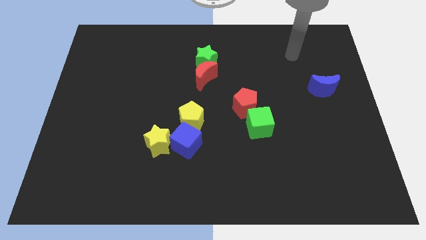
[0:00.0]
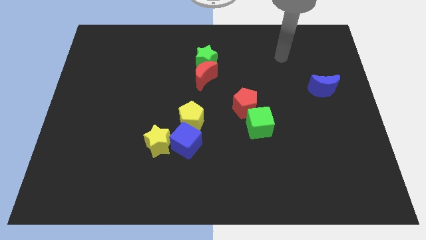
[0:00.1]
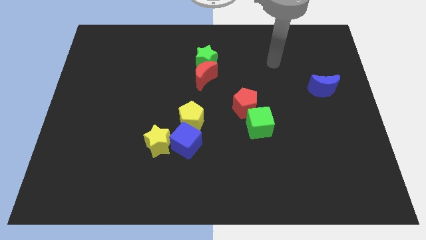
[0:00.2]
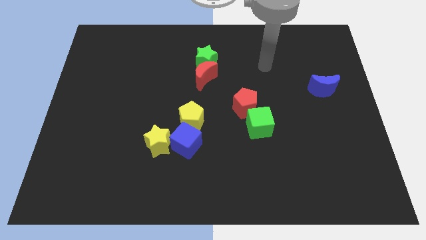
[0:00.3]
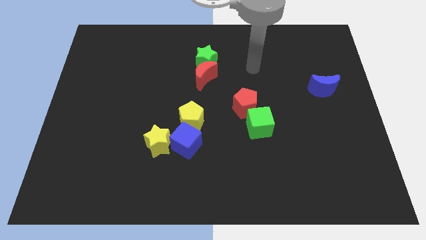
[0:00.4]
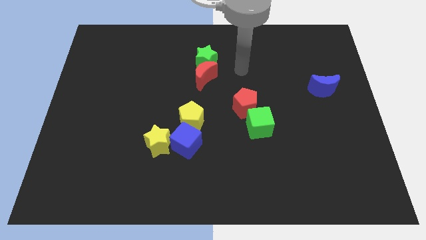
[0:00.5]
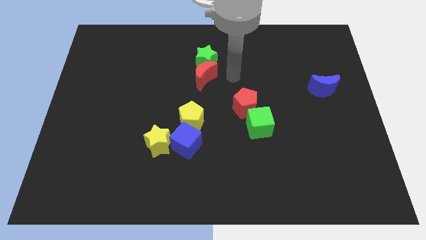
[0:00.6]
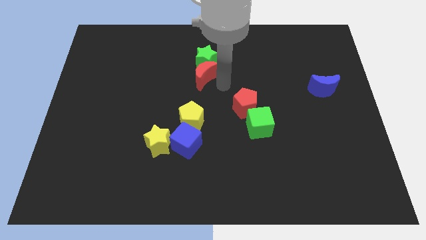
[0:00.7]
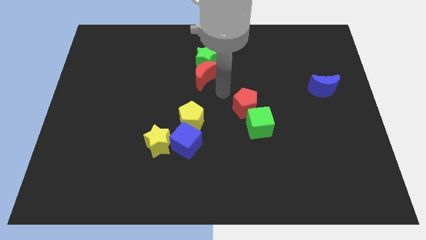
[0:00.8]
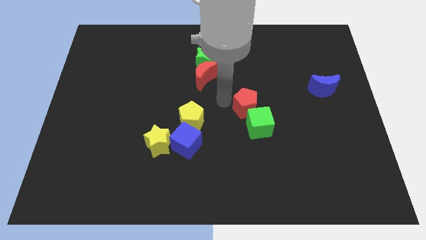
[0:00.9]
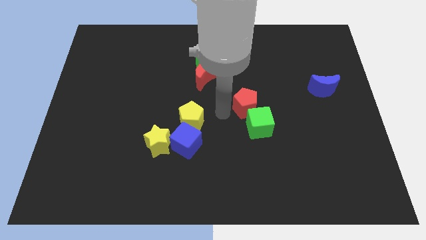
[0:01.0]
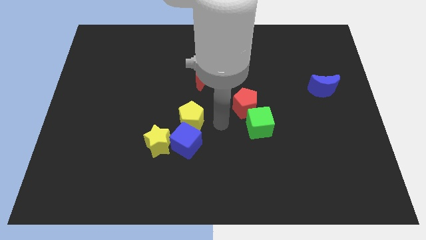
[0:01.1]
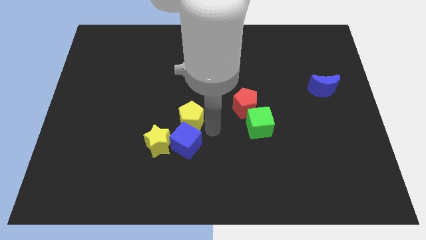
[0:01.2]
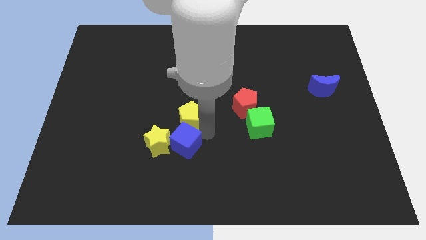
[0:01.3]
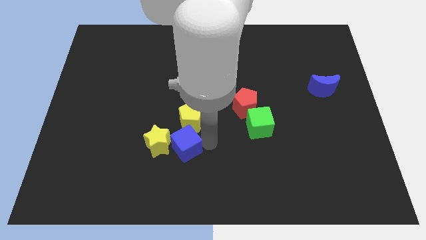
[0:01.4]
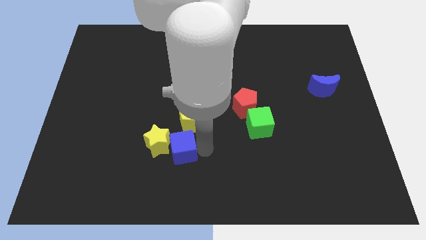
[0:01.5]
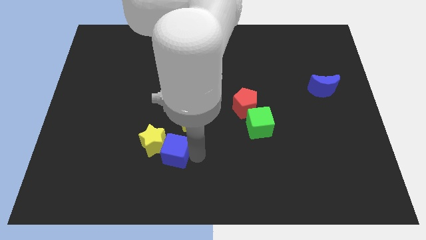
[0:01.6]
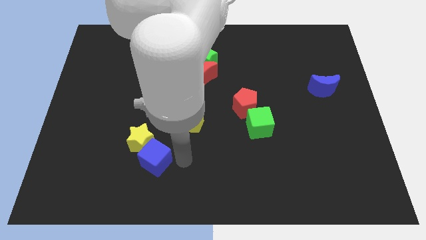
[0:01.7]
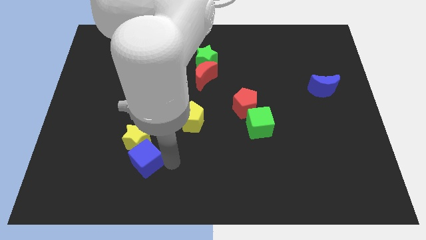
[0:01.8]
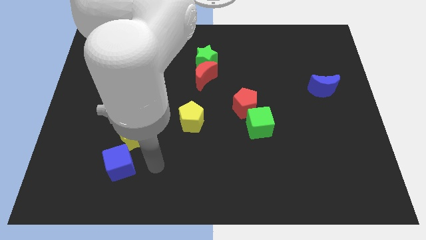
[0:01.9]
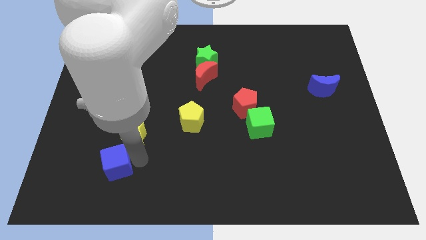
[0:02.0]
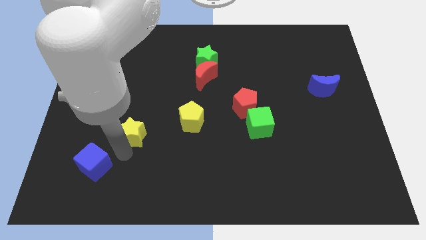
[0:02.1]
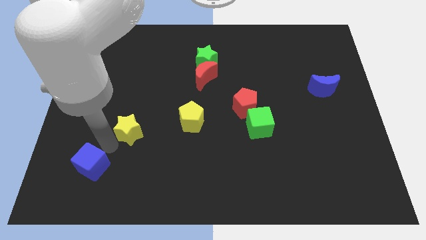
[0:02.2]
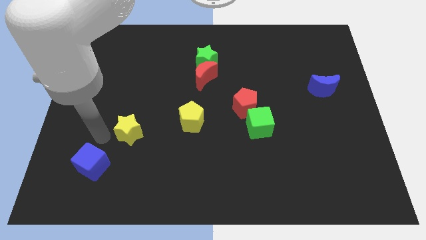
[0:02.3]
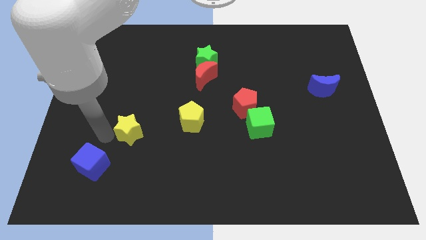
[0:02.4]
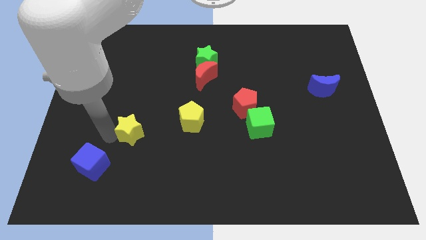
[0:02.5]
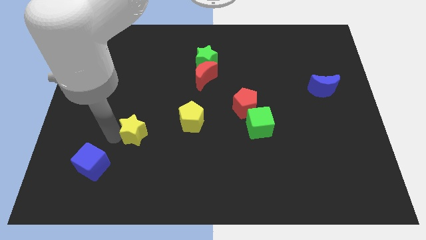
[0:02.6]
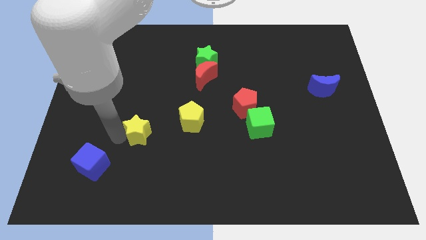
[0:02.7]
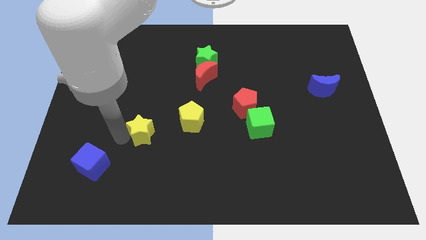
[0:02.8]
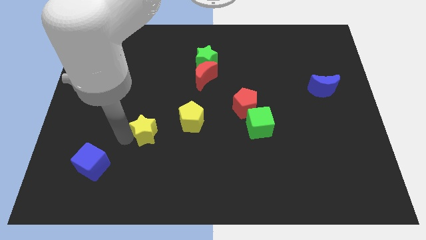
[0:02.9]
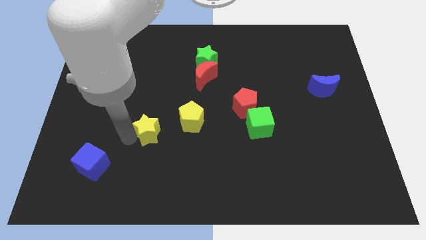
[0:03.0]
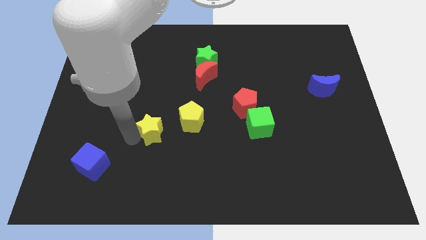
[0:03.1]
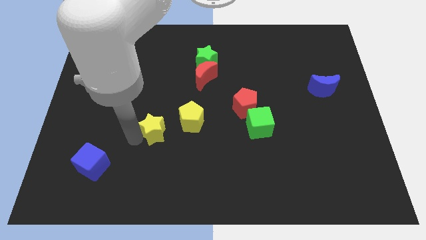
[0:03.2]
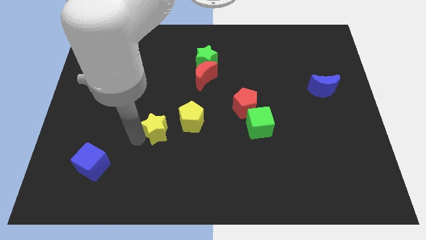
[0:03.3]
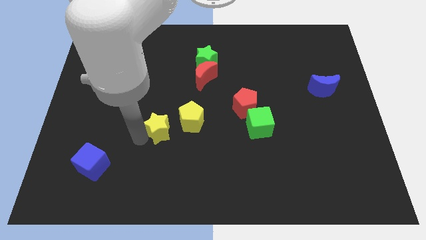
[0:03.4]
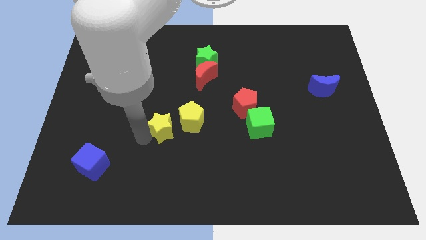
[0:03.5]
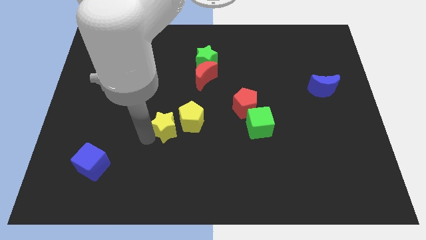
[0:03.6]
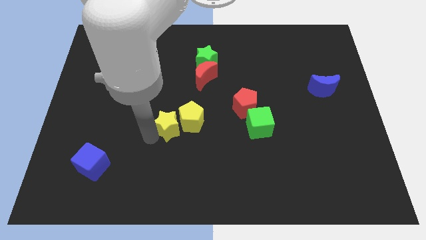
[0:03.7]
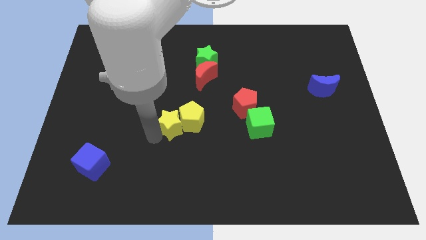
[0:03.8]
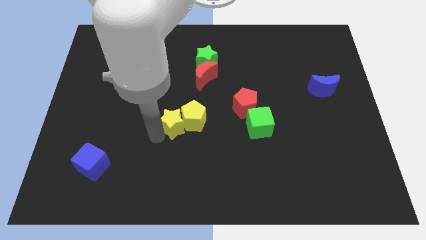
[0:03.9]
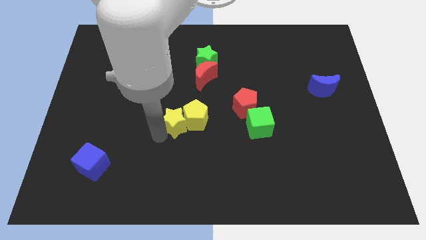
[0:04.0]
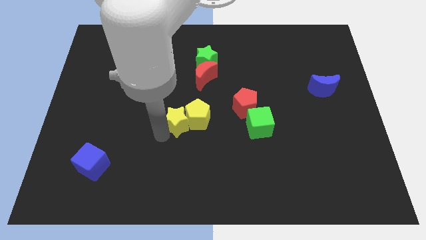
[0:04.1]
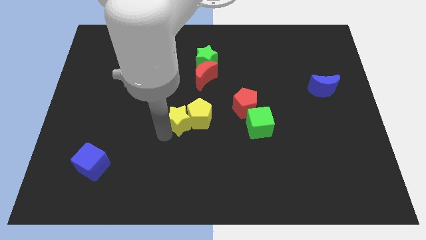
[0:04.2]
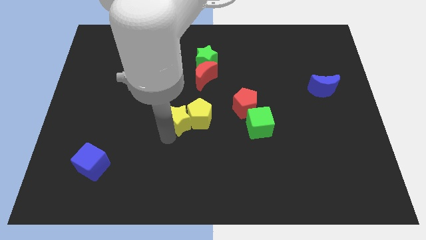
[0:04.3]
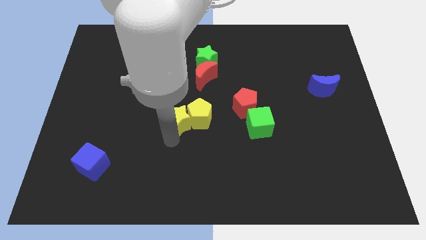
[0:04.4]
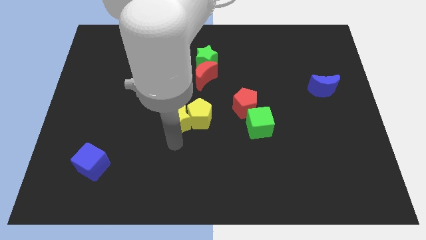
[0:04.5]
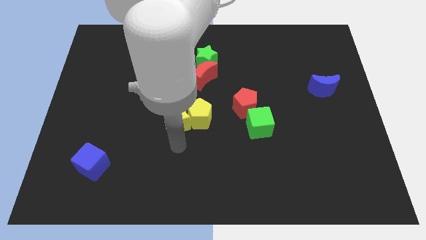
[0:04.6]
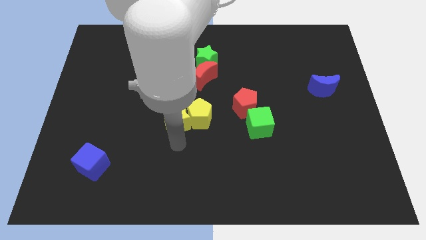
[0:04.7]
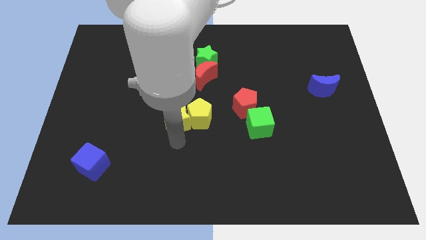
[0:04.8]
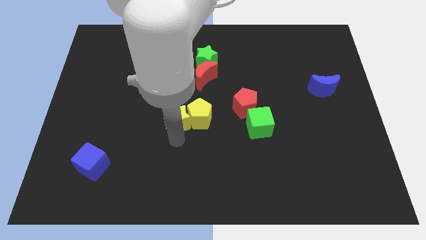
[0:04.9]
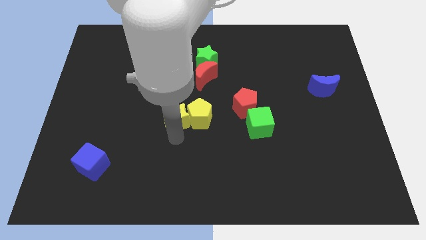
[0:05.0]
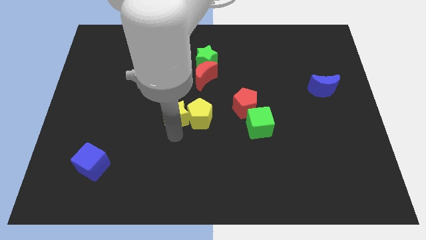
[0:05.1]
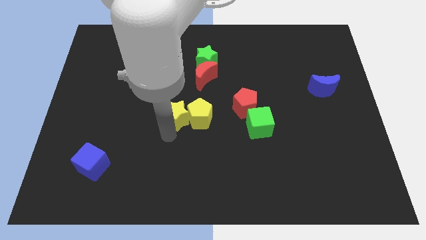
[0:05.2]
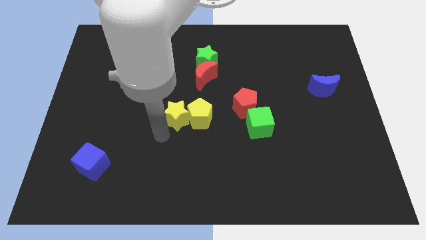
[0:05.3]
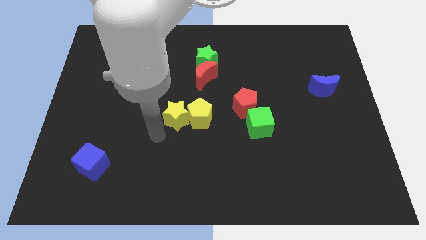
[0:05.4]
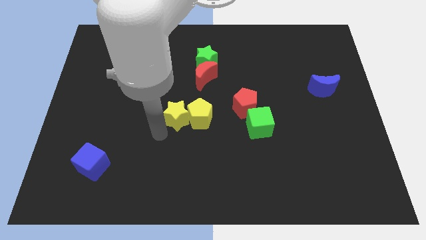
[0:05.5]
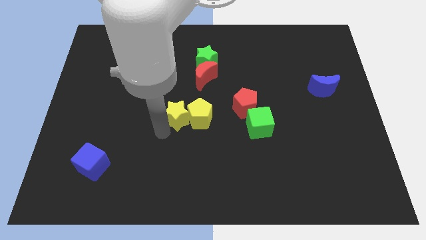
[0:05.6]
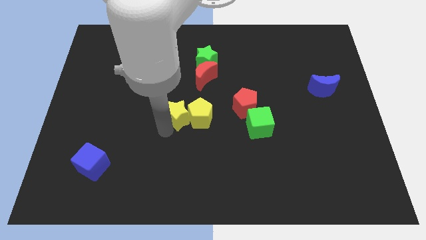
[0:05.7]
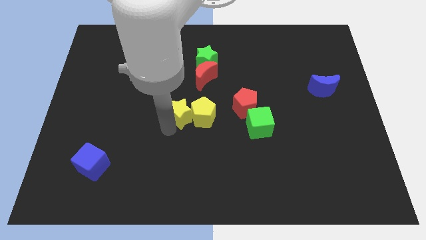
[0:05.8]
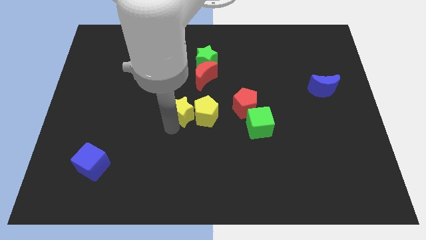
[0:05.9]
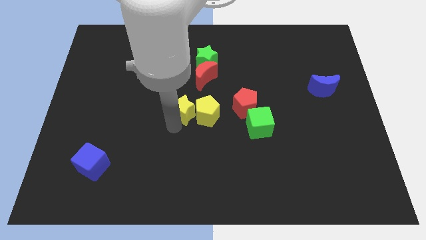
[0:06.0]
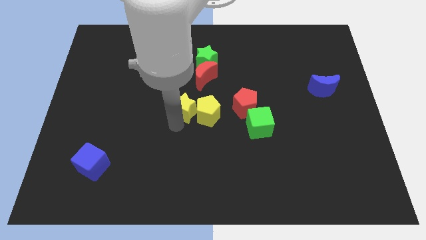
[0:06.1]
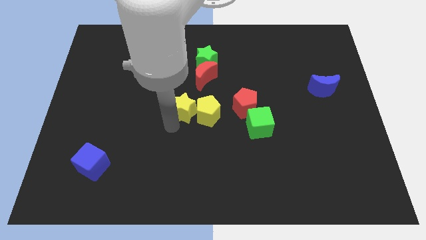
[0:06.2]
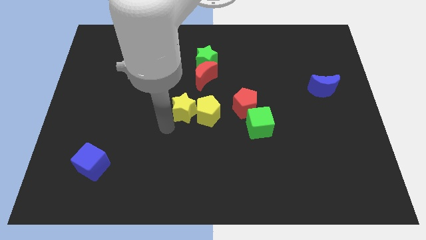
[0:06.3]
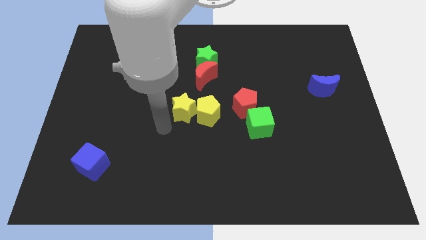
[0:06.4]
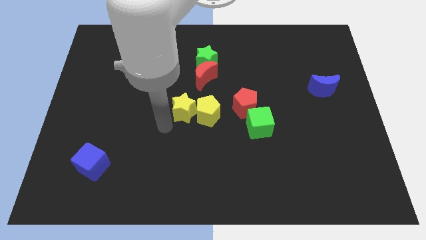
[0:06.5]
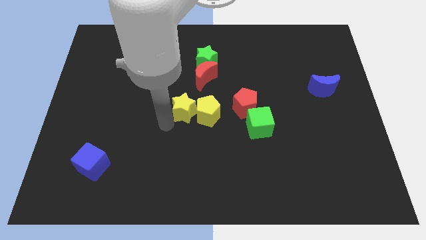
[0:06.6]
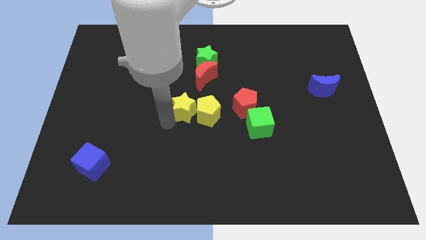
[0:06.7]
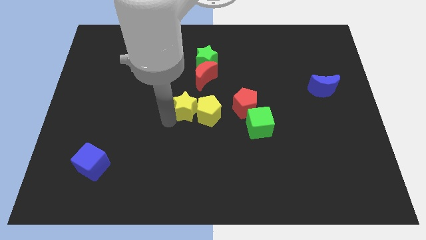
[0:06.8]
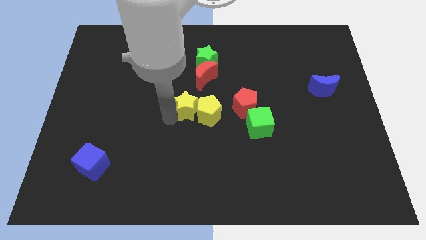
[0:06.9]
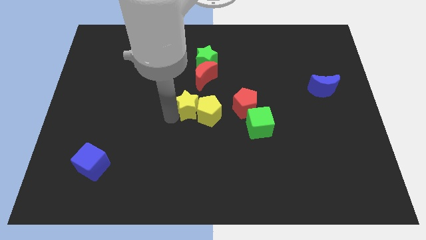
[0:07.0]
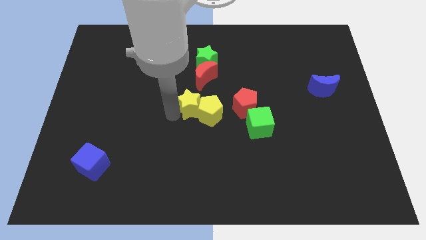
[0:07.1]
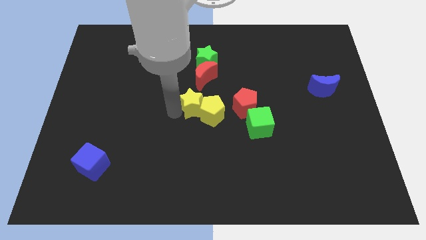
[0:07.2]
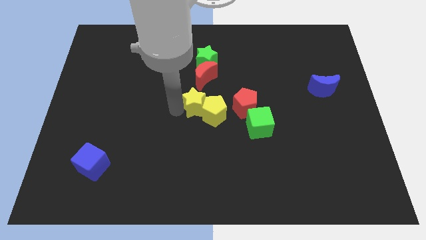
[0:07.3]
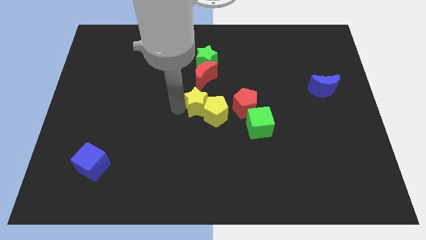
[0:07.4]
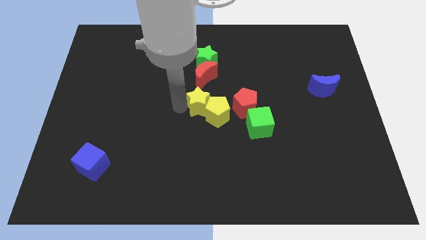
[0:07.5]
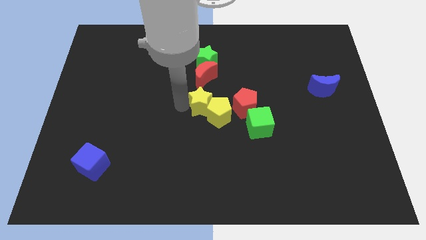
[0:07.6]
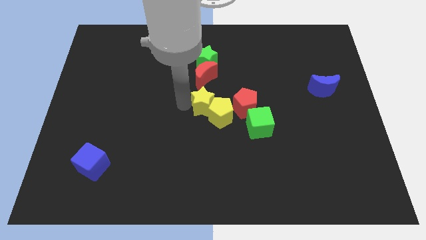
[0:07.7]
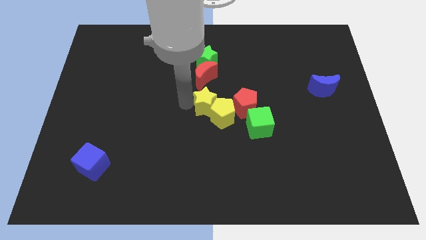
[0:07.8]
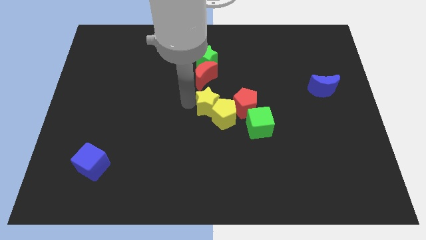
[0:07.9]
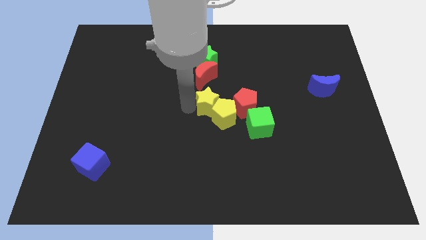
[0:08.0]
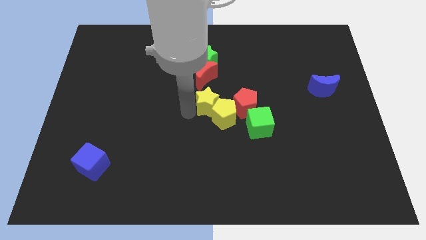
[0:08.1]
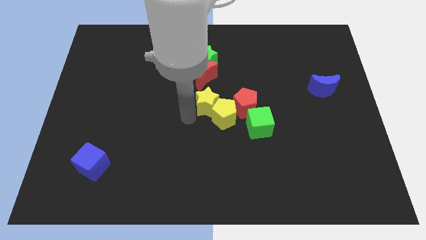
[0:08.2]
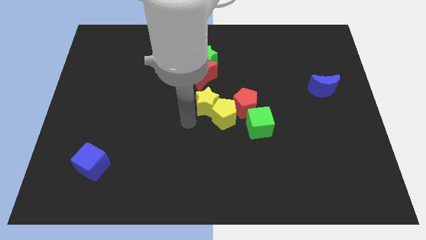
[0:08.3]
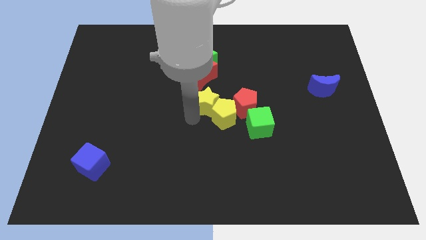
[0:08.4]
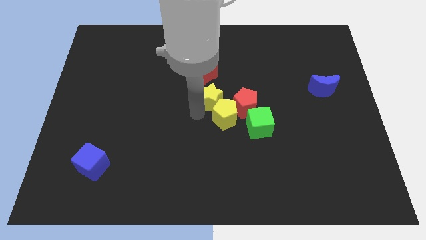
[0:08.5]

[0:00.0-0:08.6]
put the yellow star to the top left side of the red pentagon
